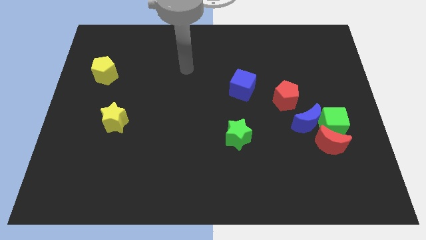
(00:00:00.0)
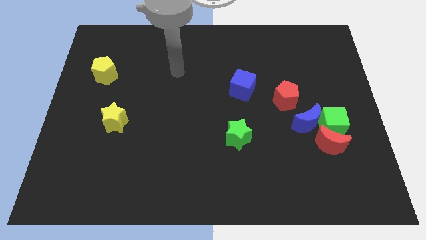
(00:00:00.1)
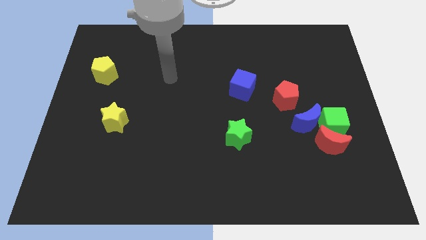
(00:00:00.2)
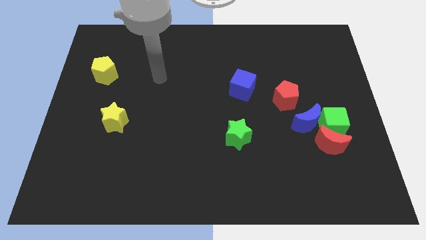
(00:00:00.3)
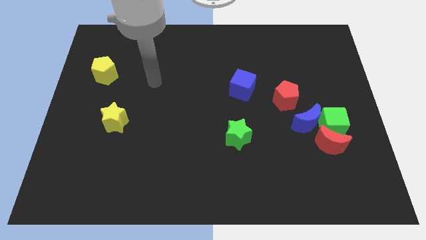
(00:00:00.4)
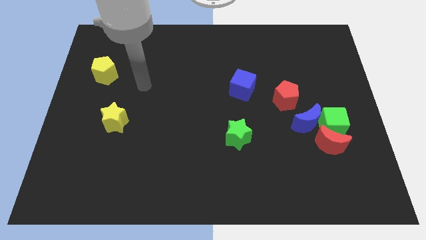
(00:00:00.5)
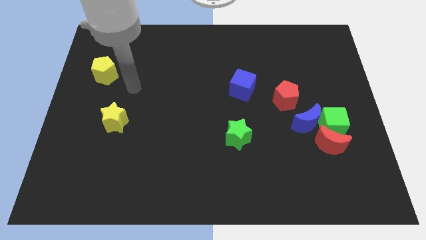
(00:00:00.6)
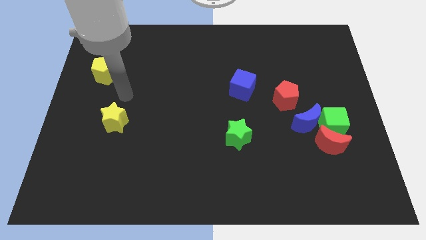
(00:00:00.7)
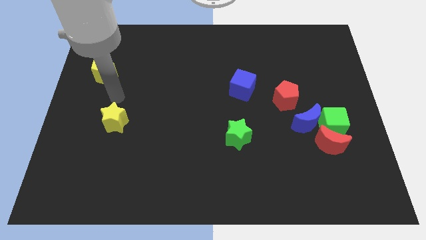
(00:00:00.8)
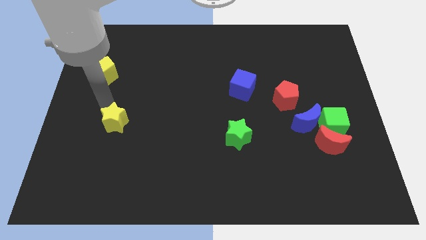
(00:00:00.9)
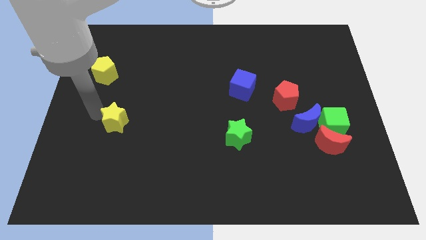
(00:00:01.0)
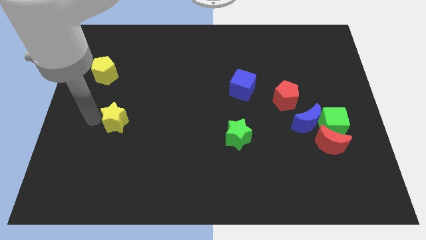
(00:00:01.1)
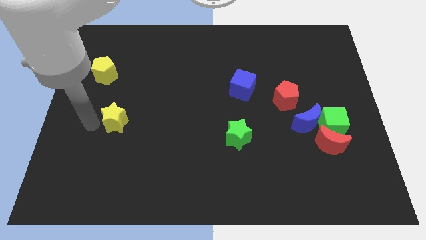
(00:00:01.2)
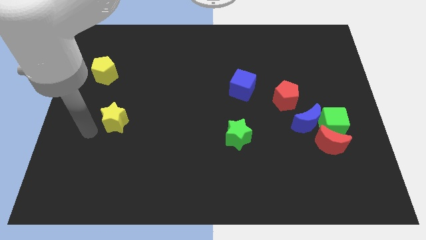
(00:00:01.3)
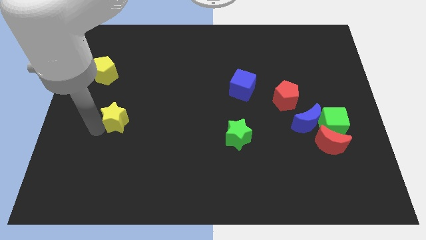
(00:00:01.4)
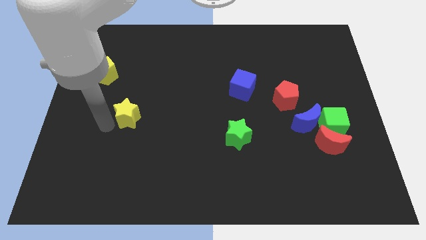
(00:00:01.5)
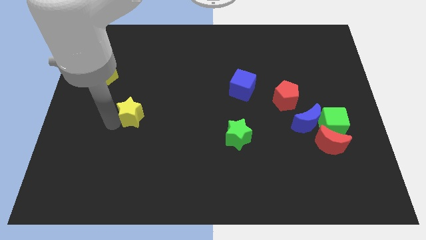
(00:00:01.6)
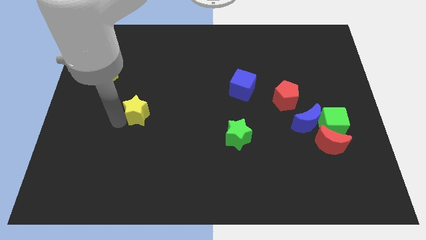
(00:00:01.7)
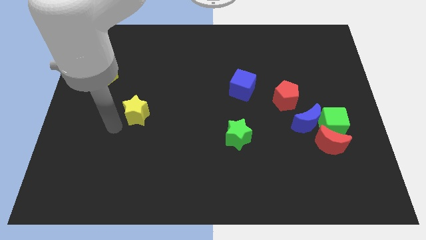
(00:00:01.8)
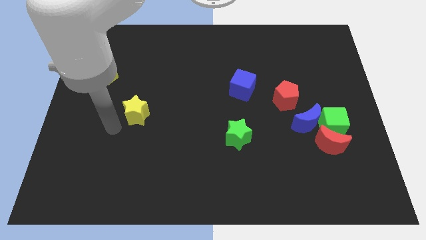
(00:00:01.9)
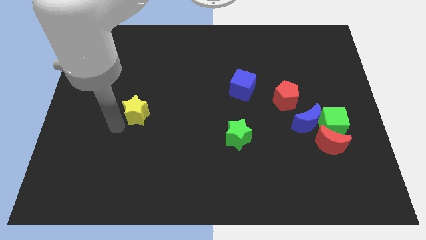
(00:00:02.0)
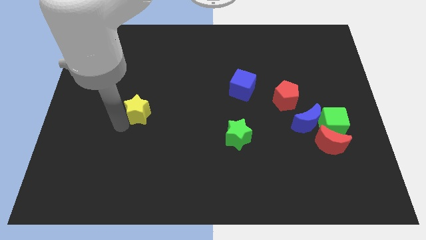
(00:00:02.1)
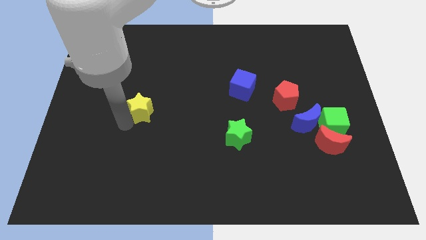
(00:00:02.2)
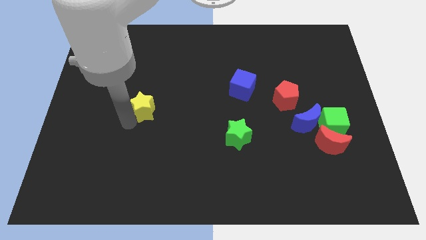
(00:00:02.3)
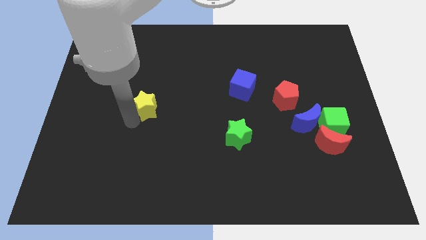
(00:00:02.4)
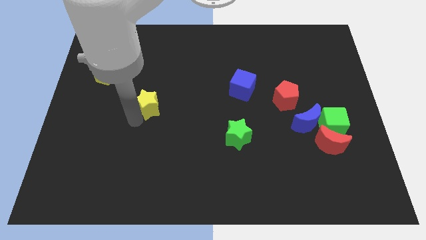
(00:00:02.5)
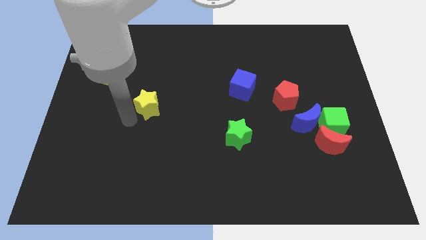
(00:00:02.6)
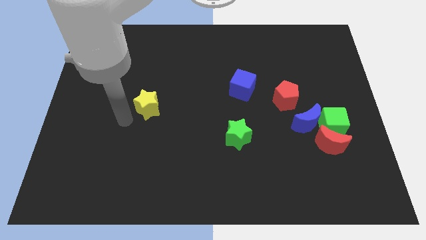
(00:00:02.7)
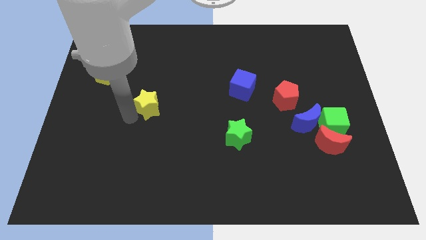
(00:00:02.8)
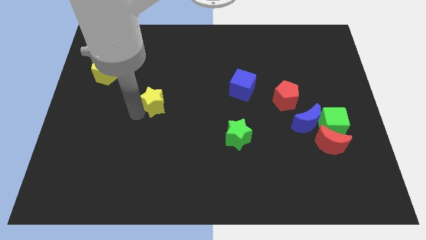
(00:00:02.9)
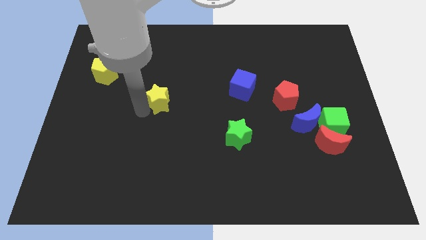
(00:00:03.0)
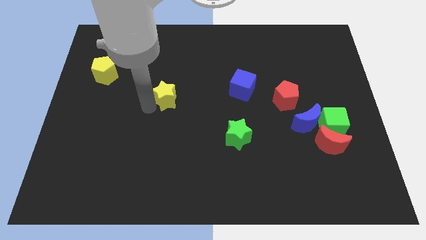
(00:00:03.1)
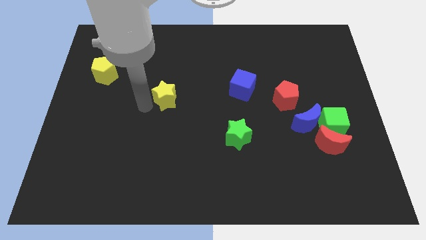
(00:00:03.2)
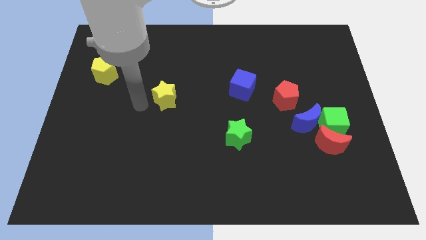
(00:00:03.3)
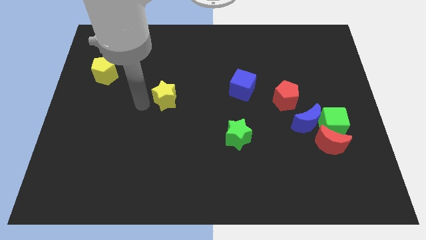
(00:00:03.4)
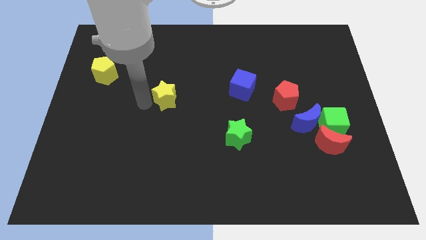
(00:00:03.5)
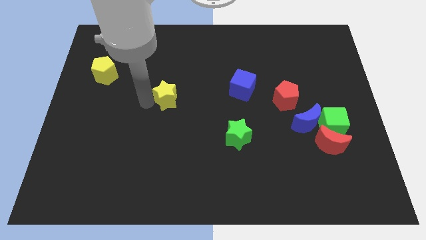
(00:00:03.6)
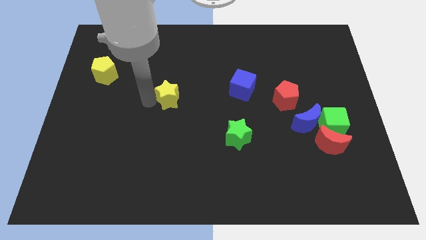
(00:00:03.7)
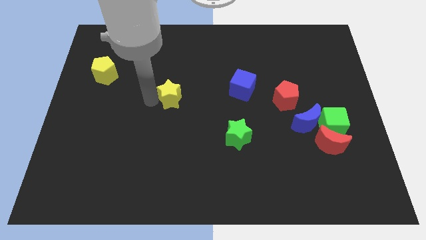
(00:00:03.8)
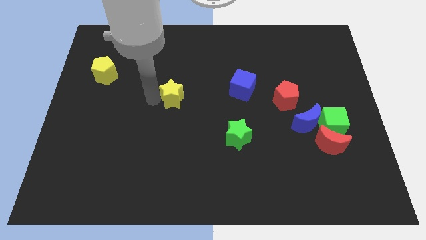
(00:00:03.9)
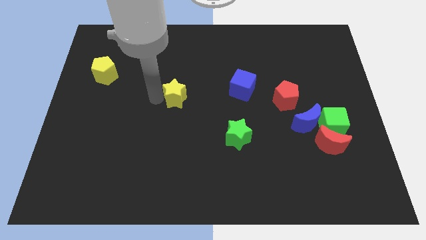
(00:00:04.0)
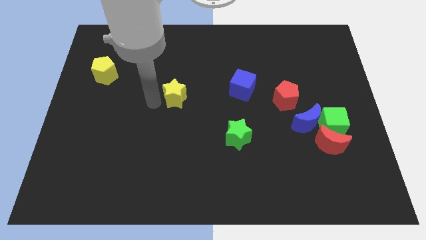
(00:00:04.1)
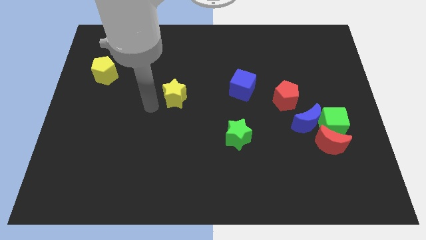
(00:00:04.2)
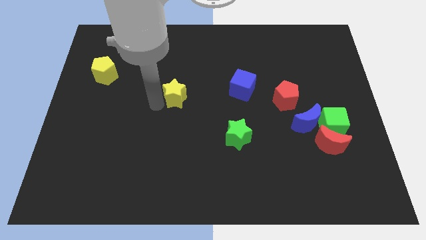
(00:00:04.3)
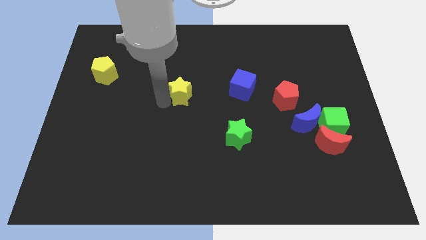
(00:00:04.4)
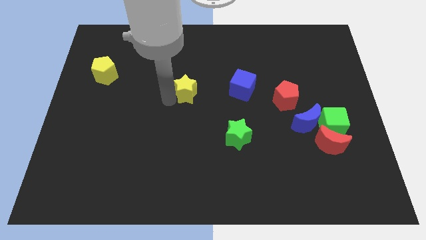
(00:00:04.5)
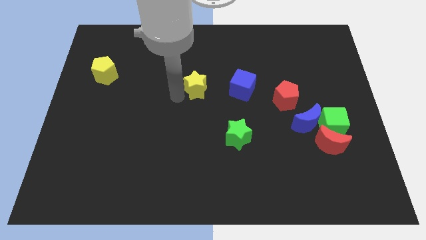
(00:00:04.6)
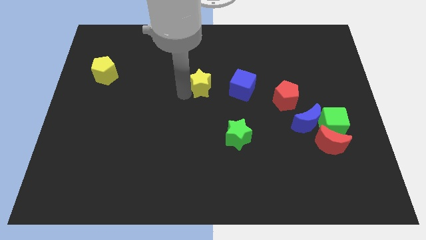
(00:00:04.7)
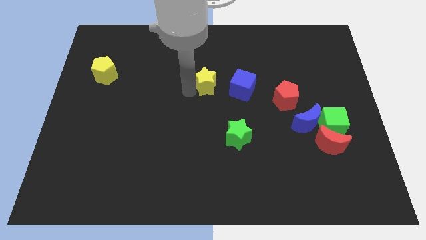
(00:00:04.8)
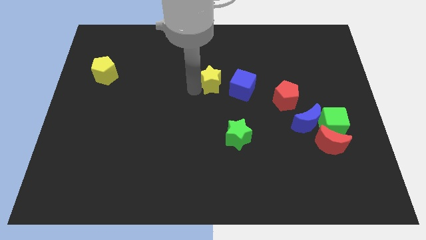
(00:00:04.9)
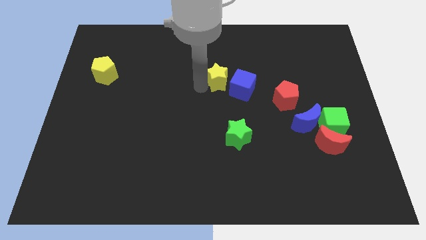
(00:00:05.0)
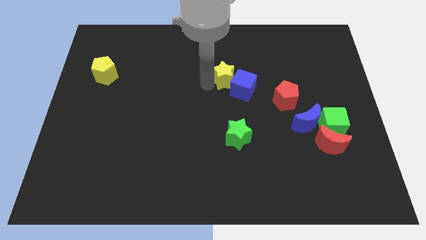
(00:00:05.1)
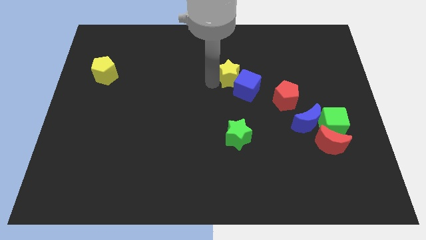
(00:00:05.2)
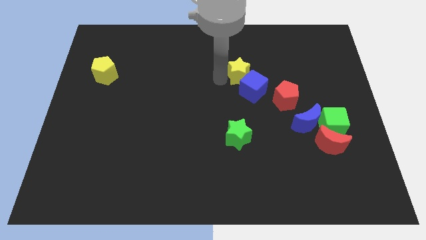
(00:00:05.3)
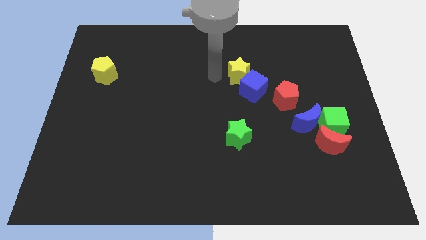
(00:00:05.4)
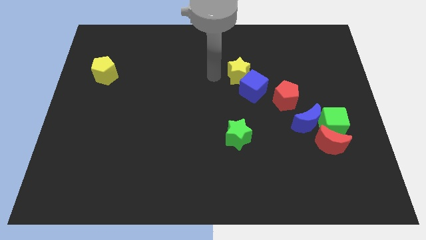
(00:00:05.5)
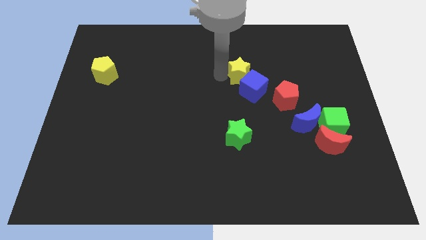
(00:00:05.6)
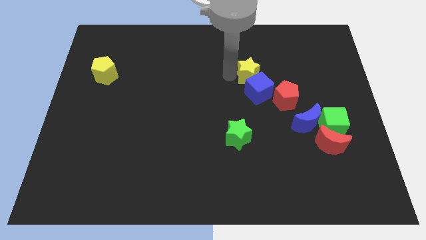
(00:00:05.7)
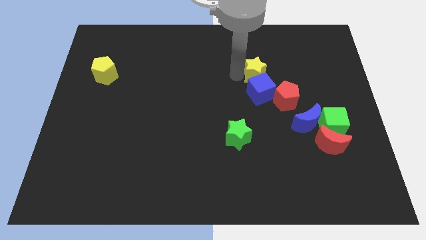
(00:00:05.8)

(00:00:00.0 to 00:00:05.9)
push the yellow star to the top right of the blue cube

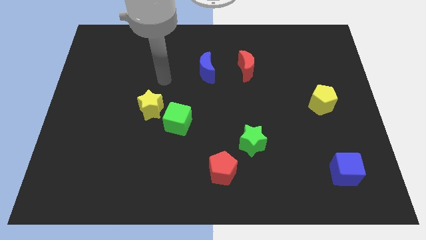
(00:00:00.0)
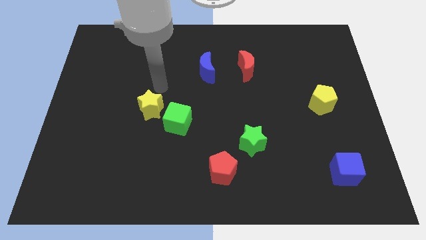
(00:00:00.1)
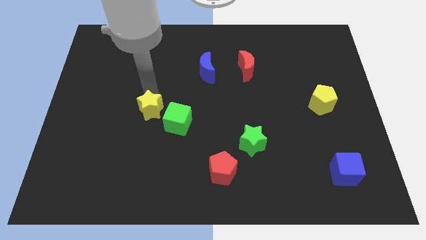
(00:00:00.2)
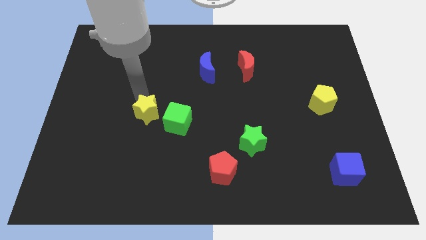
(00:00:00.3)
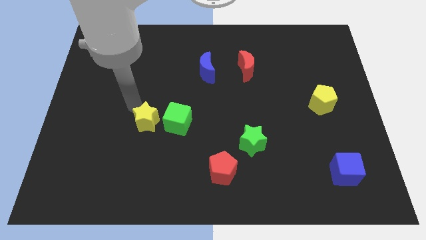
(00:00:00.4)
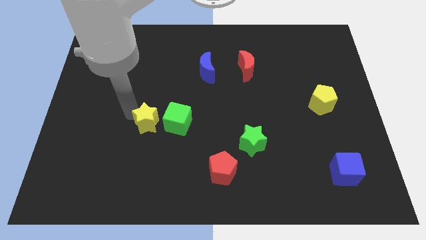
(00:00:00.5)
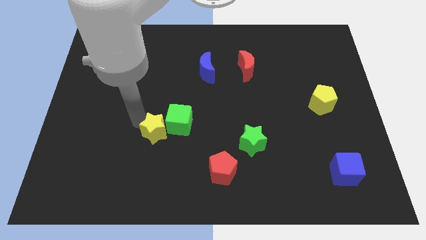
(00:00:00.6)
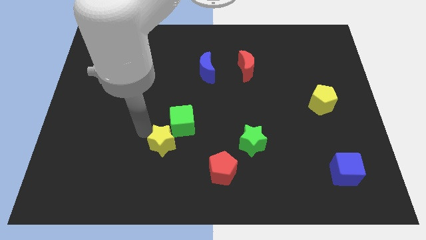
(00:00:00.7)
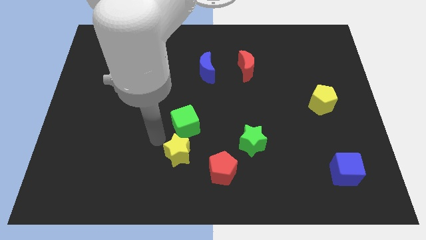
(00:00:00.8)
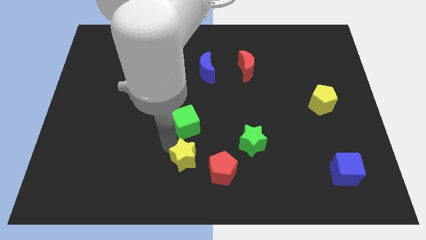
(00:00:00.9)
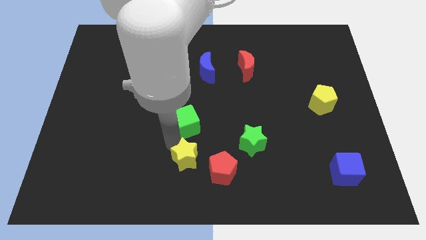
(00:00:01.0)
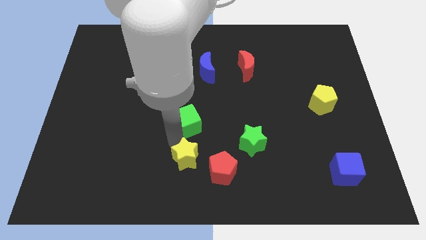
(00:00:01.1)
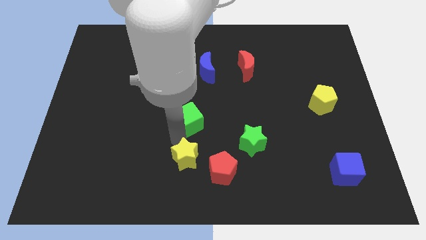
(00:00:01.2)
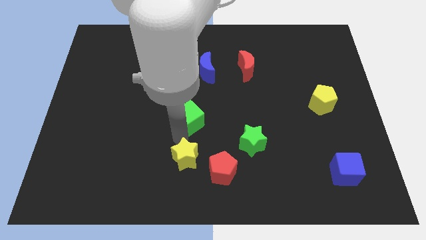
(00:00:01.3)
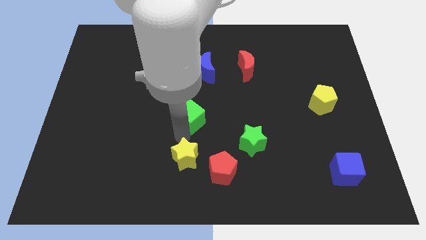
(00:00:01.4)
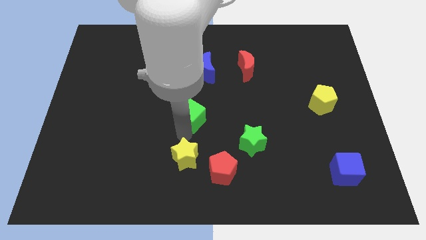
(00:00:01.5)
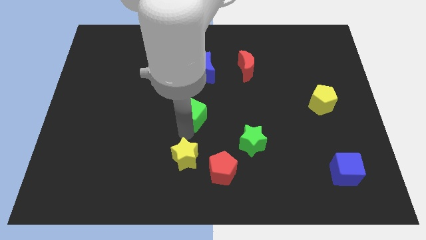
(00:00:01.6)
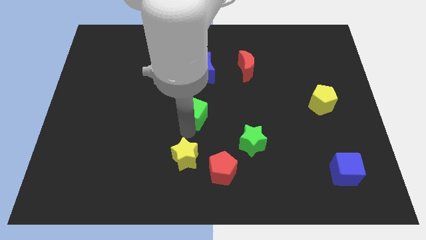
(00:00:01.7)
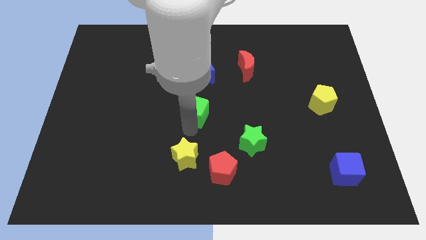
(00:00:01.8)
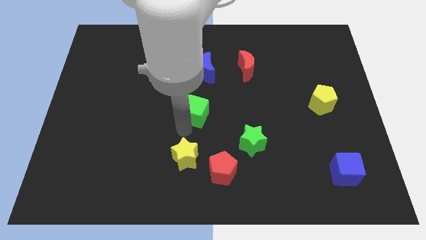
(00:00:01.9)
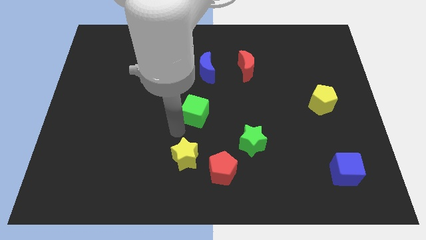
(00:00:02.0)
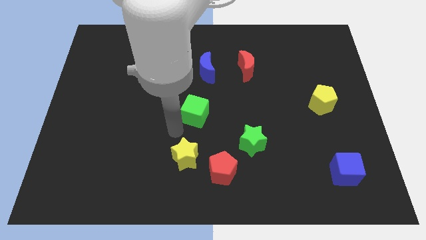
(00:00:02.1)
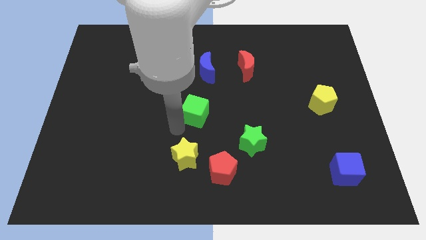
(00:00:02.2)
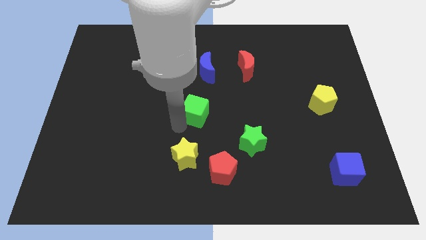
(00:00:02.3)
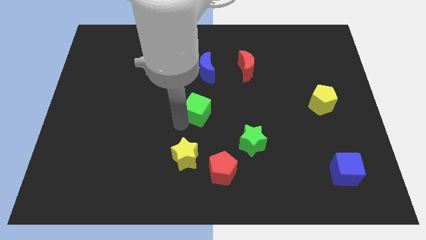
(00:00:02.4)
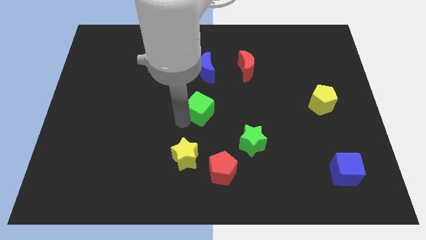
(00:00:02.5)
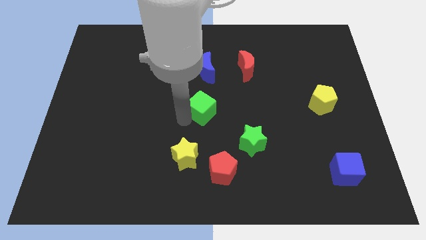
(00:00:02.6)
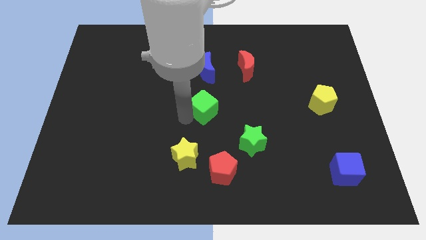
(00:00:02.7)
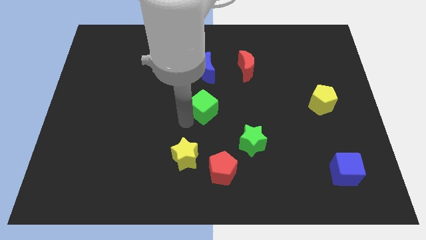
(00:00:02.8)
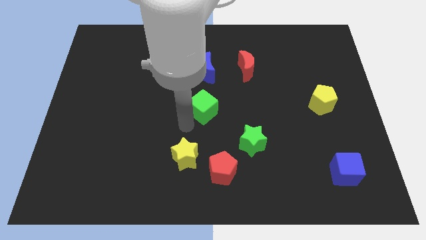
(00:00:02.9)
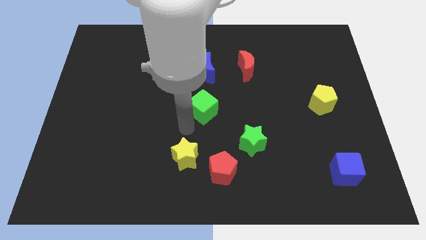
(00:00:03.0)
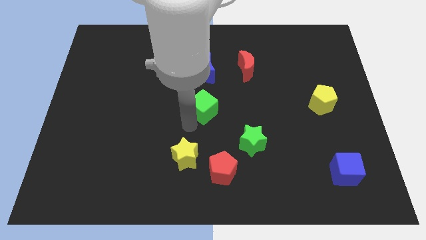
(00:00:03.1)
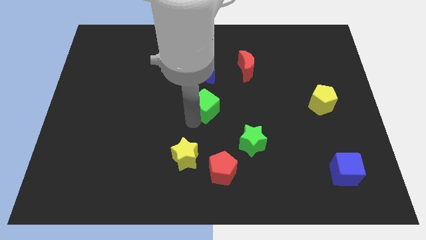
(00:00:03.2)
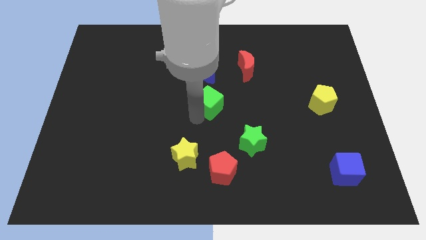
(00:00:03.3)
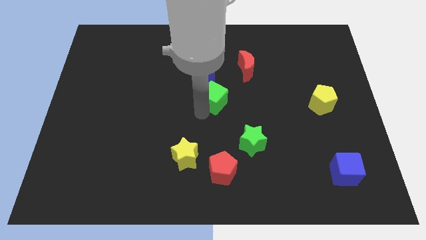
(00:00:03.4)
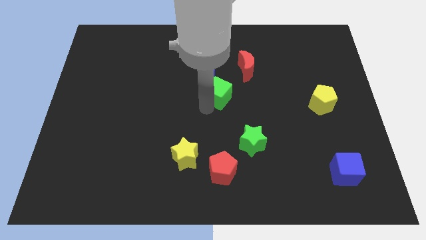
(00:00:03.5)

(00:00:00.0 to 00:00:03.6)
put the green cube to the bottom right of the blue moon
